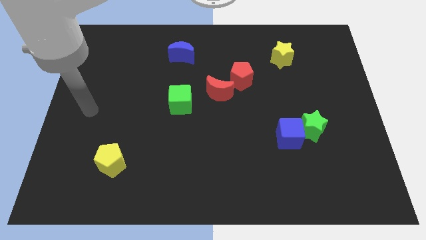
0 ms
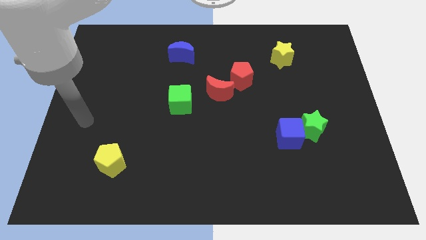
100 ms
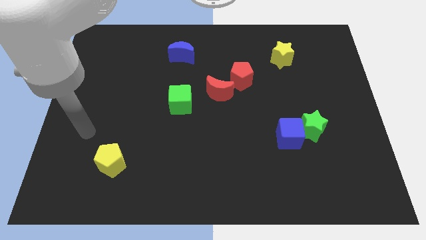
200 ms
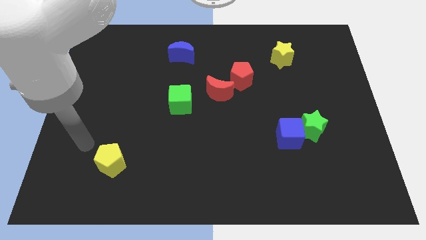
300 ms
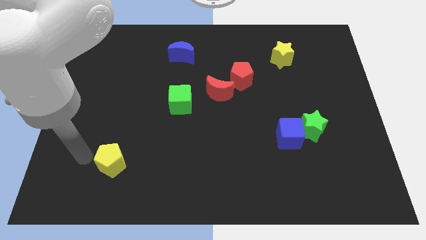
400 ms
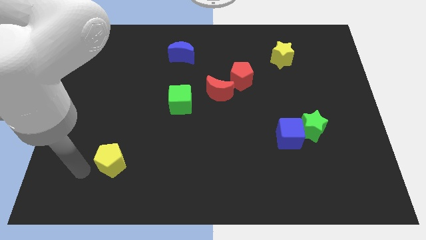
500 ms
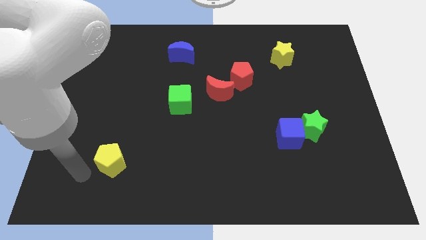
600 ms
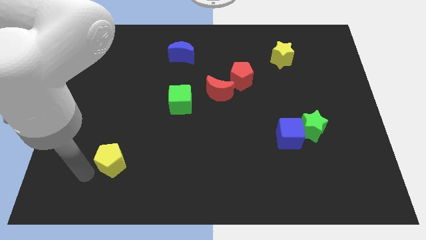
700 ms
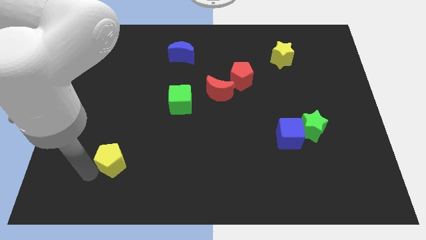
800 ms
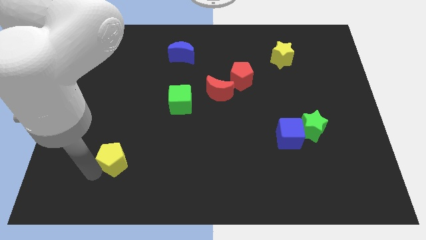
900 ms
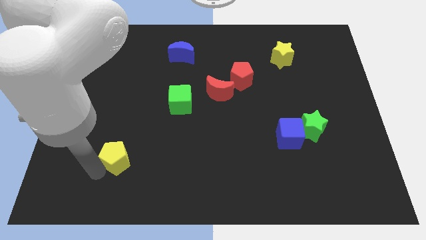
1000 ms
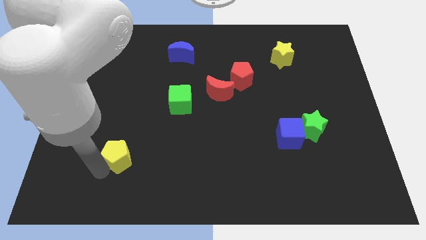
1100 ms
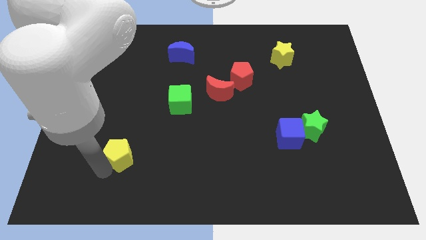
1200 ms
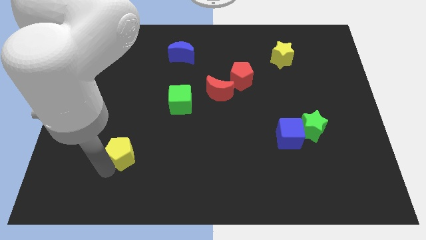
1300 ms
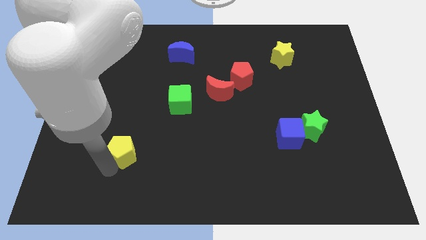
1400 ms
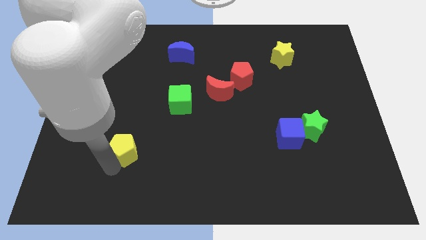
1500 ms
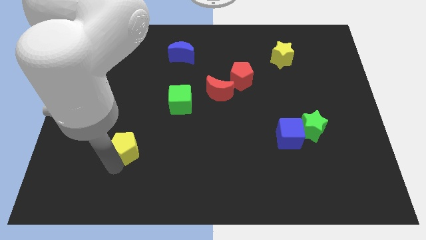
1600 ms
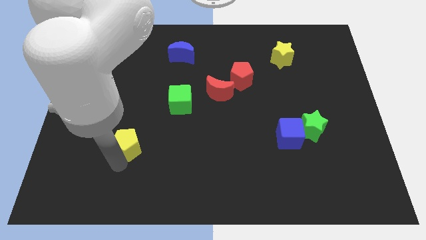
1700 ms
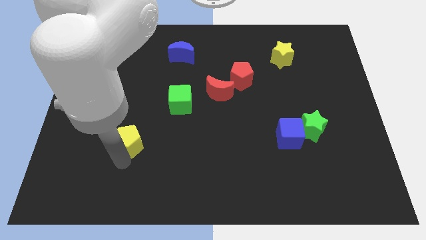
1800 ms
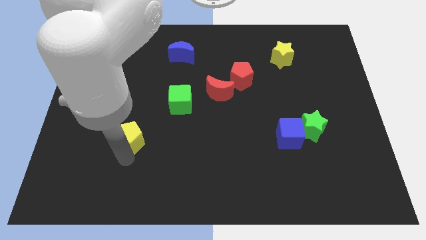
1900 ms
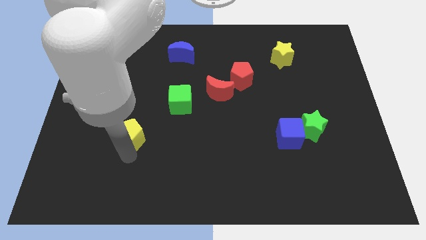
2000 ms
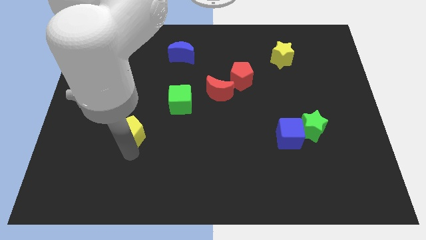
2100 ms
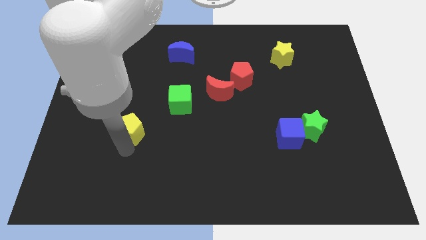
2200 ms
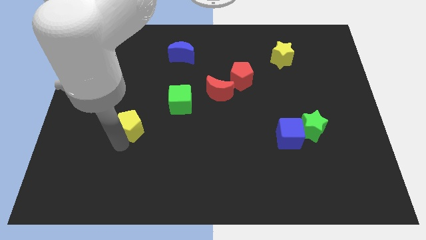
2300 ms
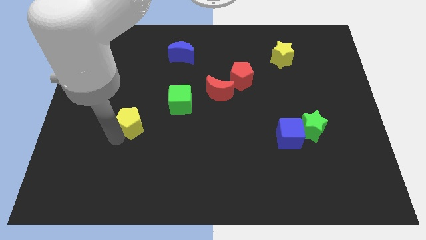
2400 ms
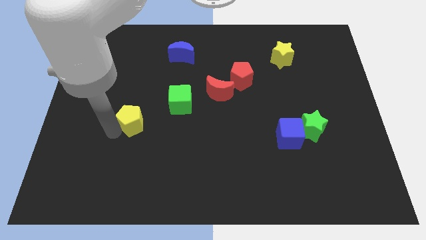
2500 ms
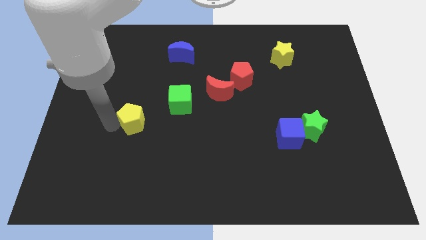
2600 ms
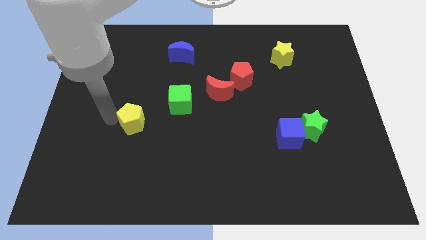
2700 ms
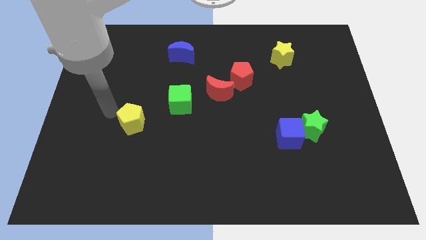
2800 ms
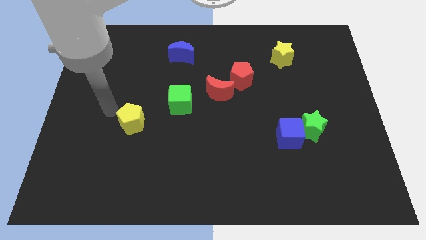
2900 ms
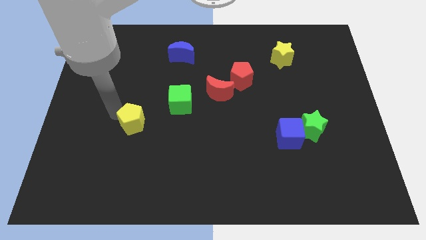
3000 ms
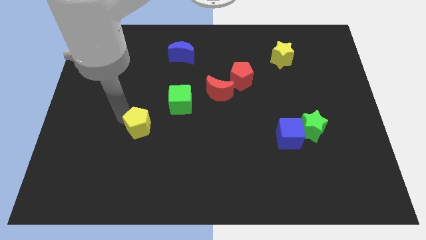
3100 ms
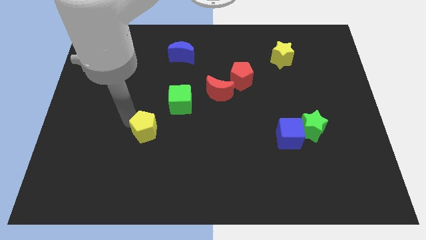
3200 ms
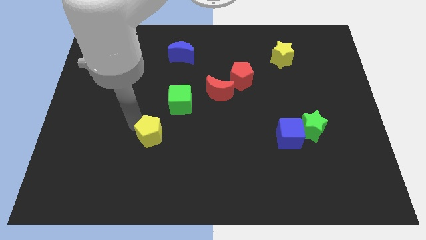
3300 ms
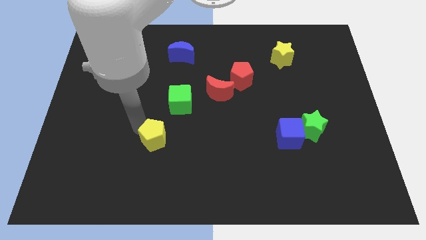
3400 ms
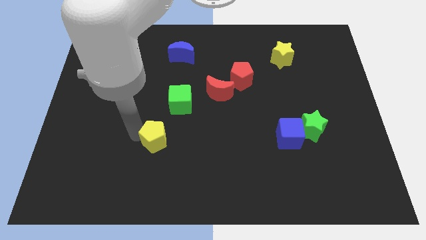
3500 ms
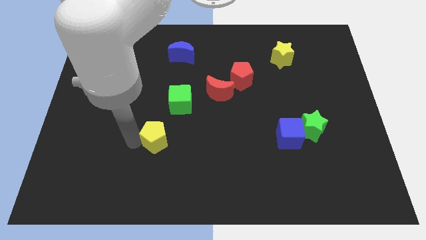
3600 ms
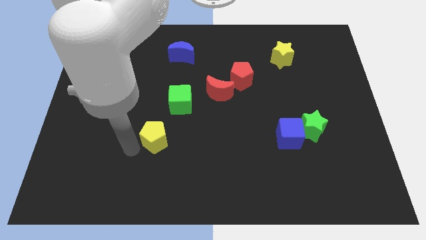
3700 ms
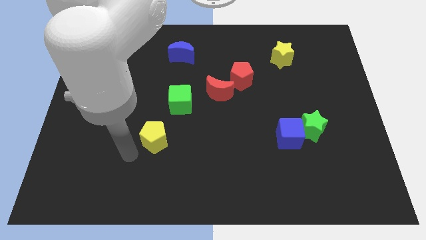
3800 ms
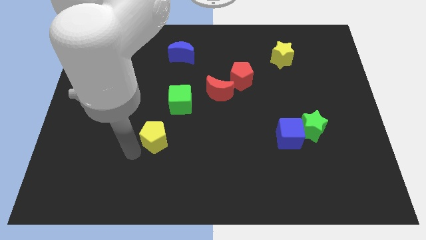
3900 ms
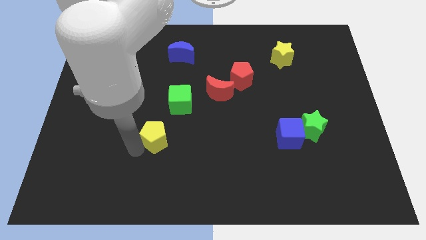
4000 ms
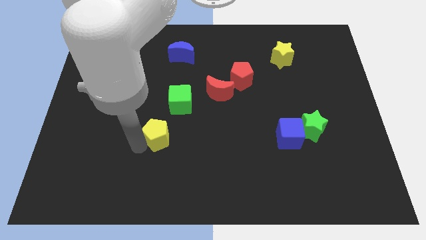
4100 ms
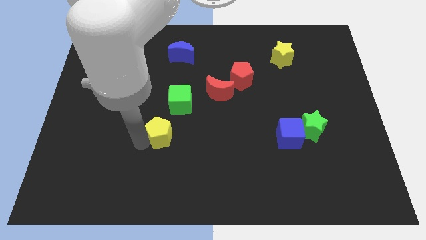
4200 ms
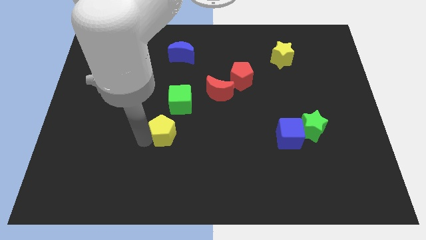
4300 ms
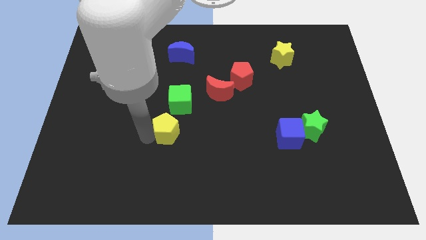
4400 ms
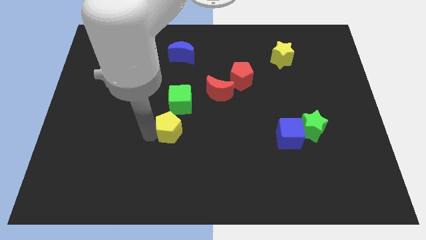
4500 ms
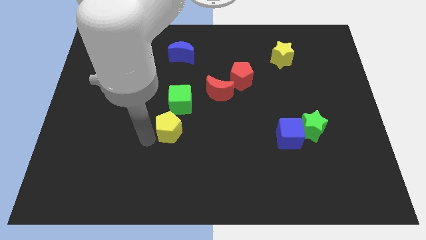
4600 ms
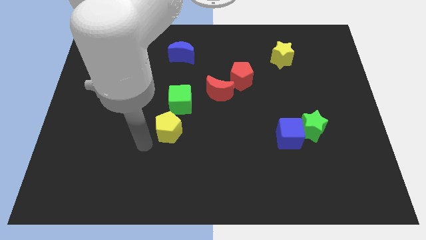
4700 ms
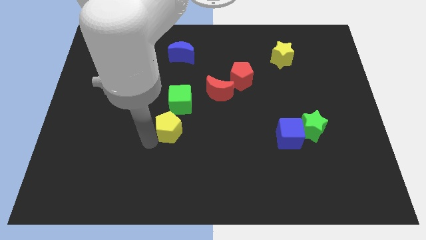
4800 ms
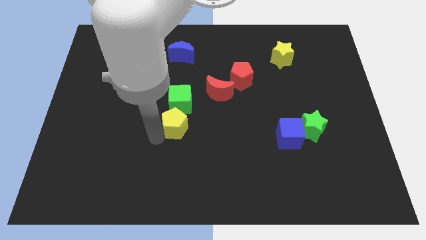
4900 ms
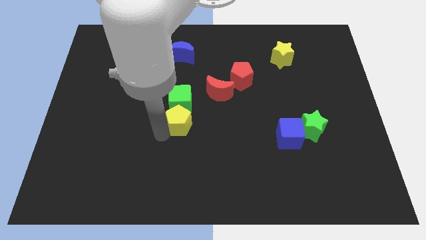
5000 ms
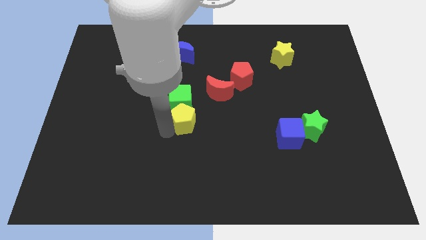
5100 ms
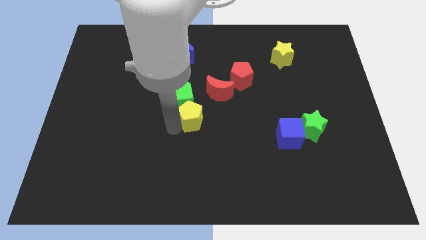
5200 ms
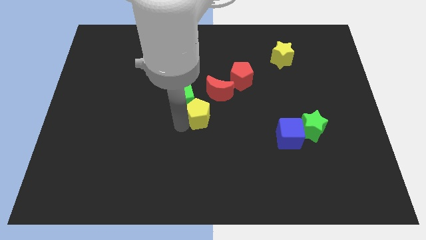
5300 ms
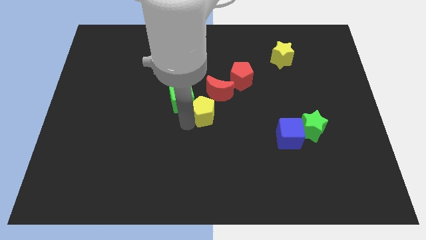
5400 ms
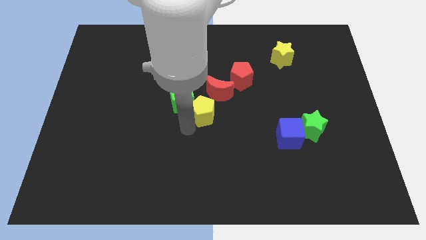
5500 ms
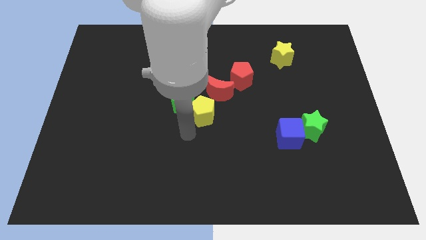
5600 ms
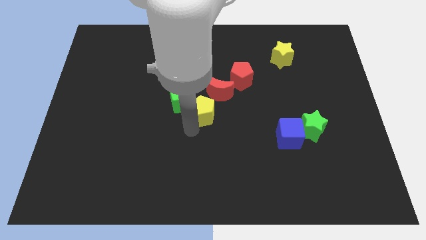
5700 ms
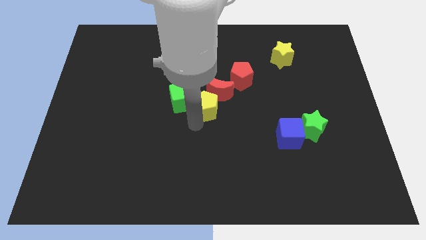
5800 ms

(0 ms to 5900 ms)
put the yellow pentagon towards the red moon

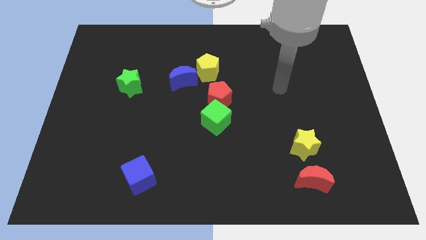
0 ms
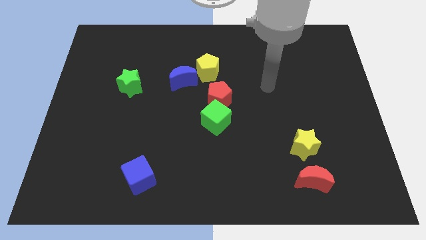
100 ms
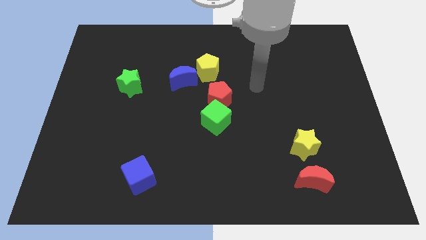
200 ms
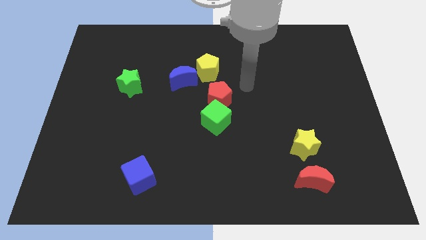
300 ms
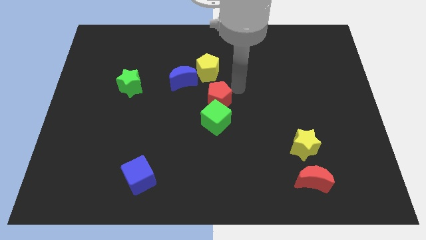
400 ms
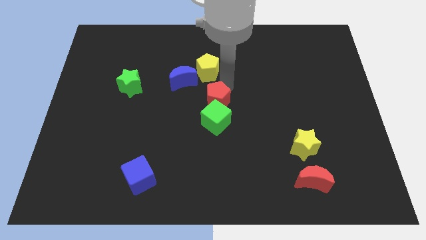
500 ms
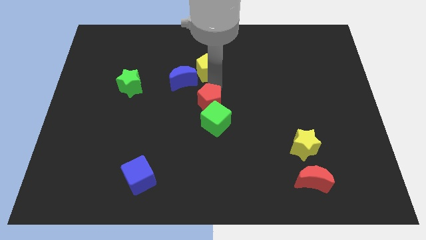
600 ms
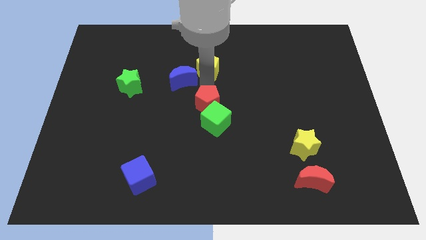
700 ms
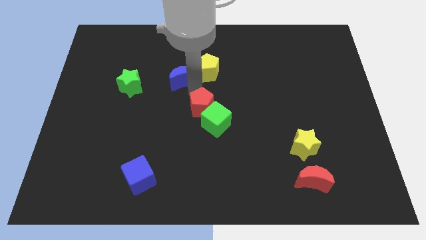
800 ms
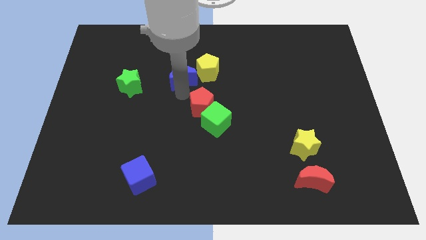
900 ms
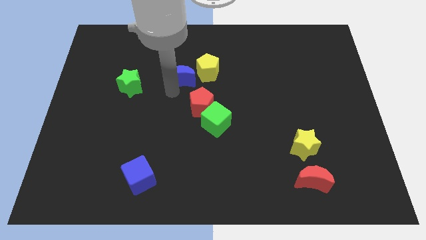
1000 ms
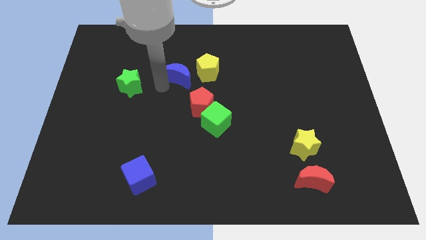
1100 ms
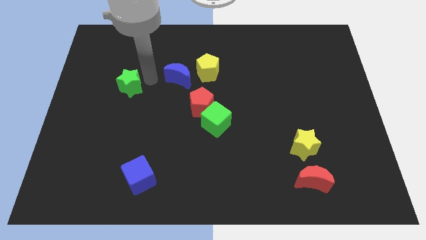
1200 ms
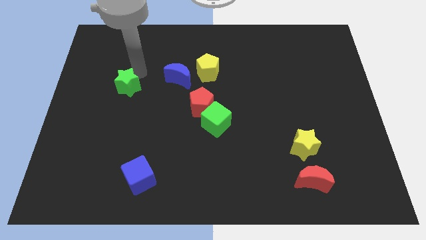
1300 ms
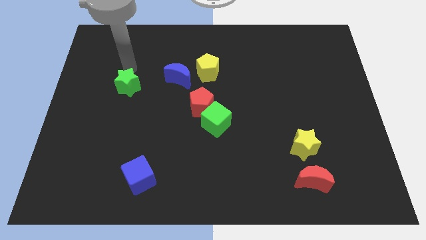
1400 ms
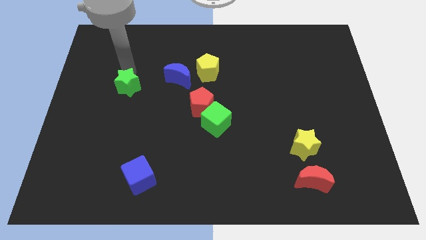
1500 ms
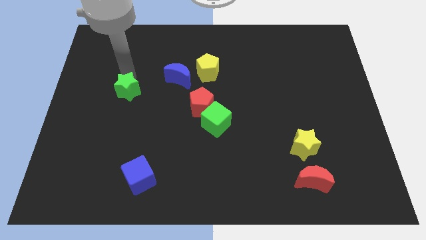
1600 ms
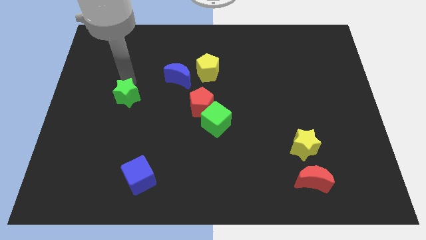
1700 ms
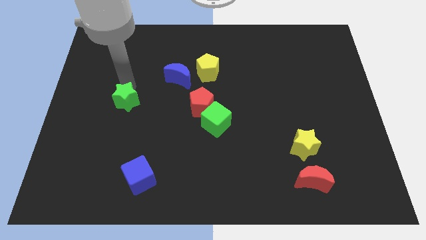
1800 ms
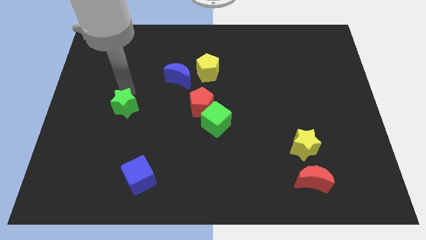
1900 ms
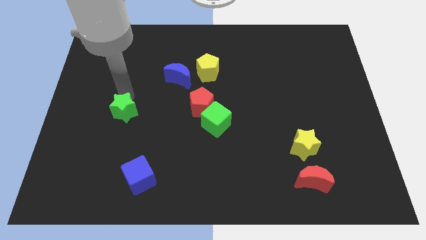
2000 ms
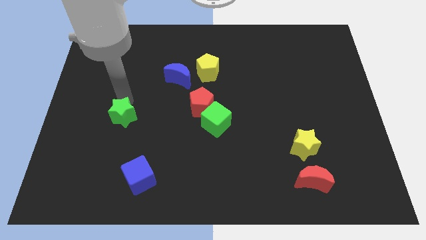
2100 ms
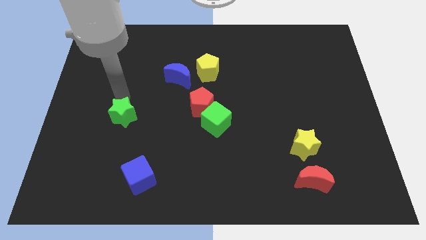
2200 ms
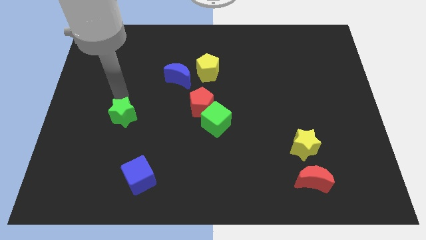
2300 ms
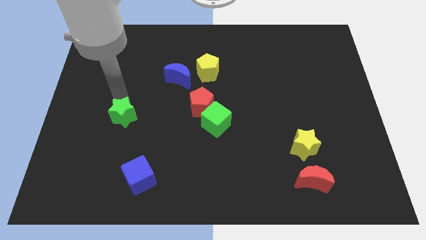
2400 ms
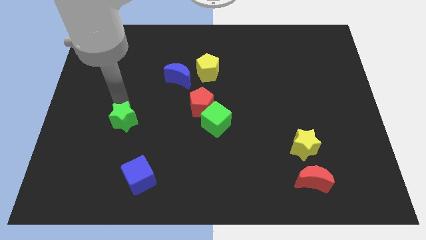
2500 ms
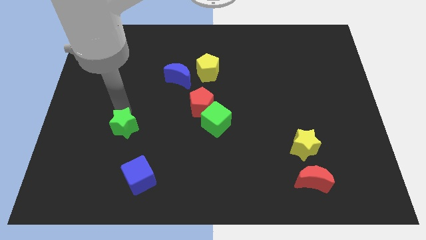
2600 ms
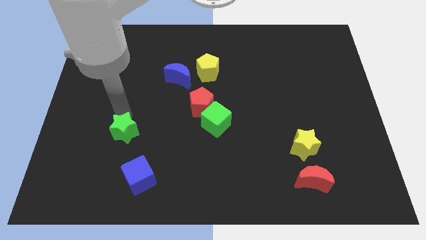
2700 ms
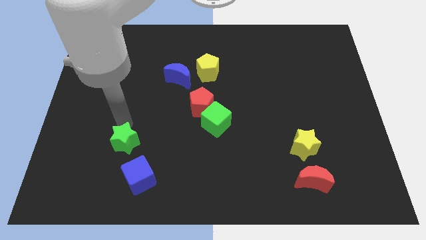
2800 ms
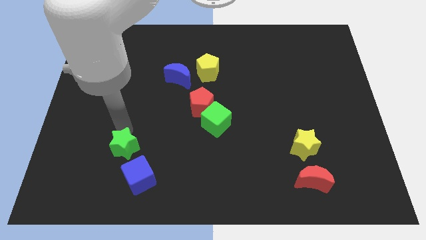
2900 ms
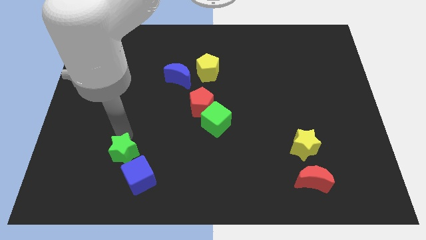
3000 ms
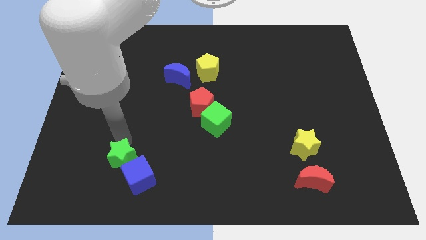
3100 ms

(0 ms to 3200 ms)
slide the green star close to the blue cube
